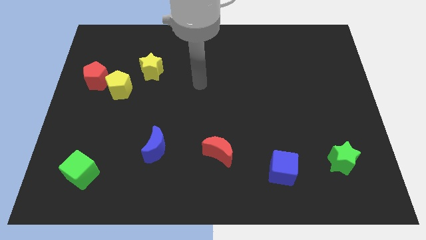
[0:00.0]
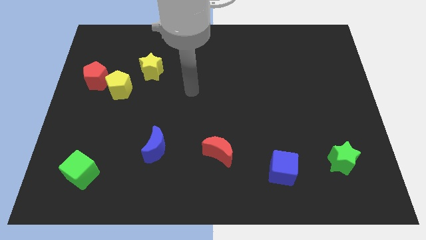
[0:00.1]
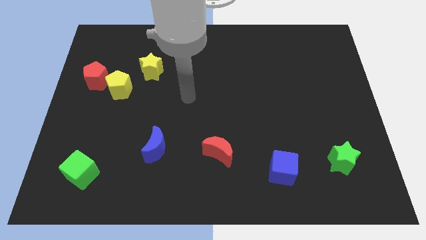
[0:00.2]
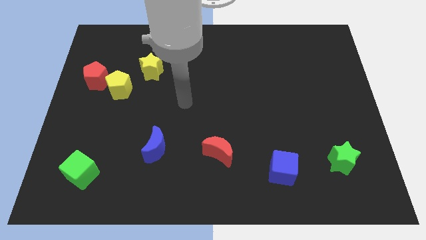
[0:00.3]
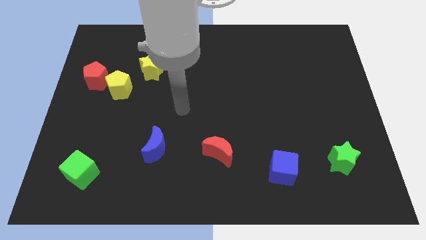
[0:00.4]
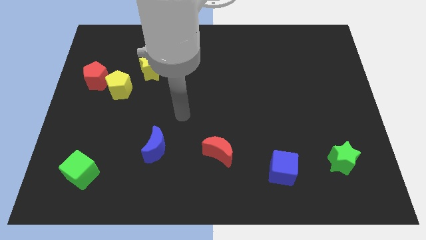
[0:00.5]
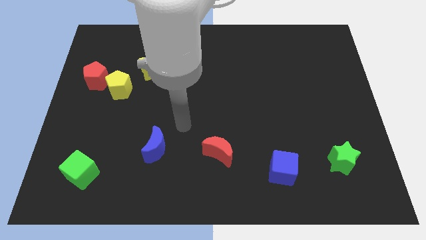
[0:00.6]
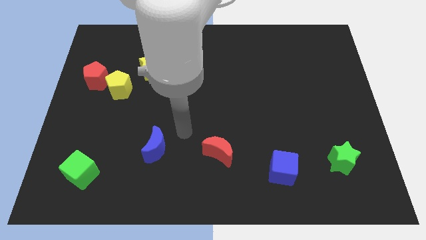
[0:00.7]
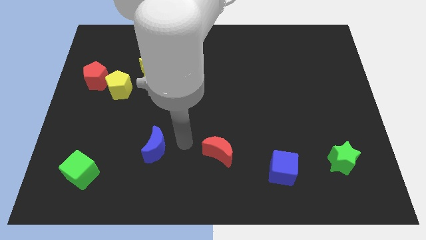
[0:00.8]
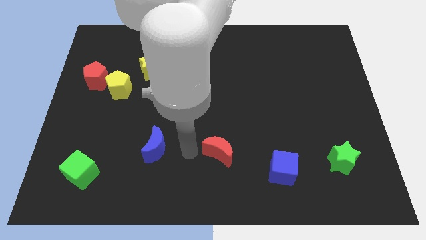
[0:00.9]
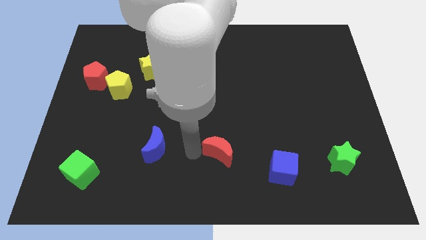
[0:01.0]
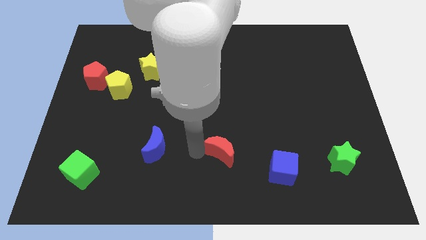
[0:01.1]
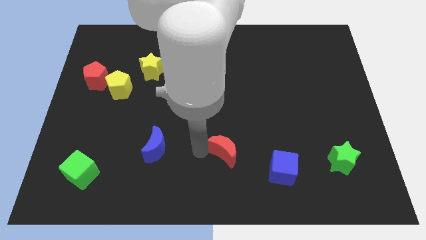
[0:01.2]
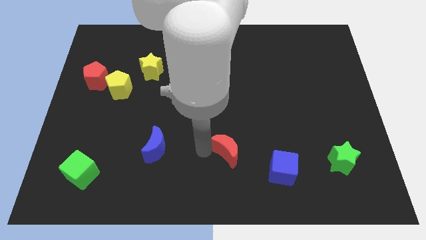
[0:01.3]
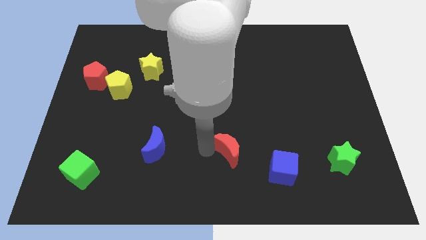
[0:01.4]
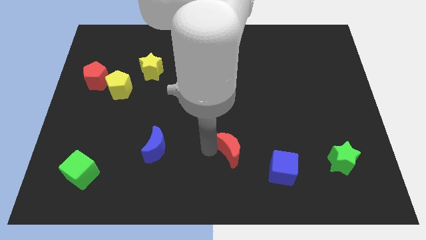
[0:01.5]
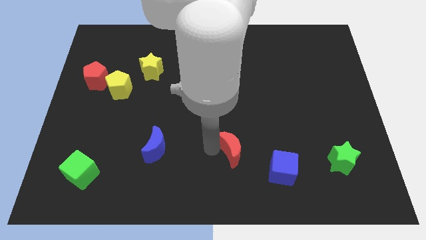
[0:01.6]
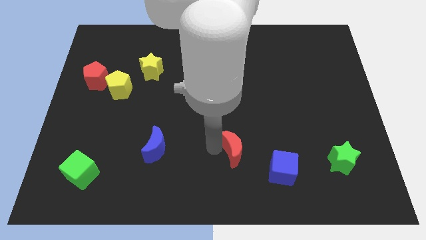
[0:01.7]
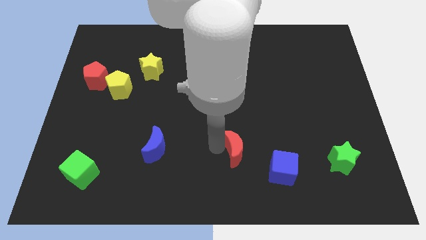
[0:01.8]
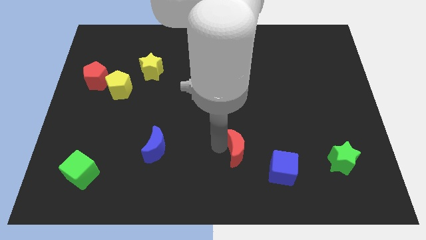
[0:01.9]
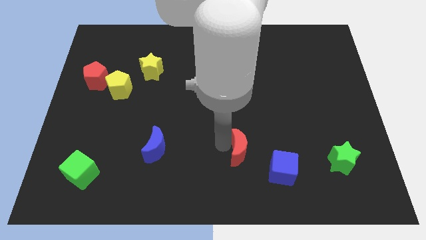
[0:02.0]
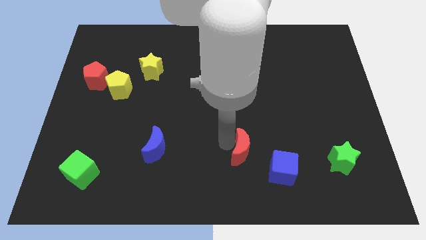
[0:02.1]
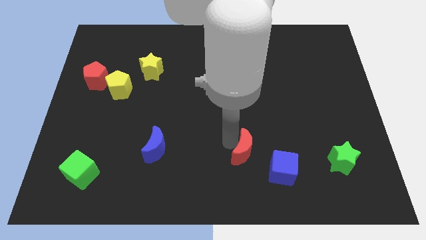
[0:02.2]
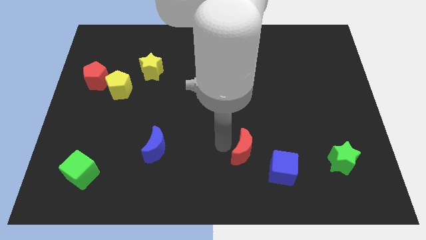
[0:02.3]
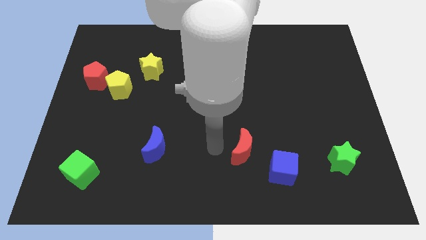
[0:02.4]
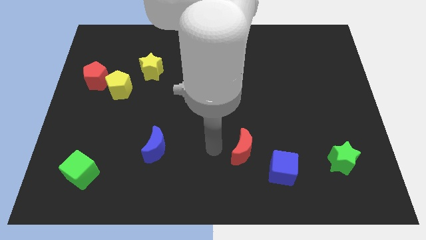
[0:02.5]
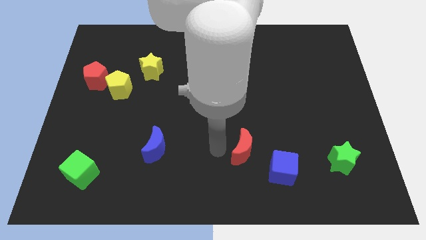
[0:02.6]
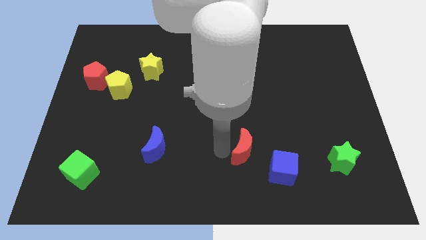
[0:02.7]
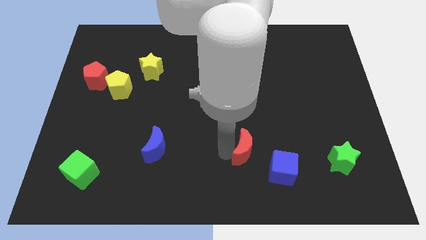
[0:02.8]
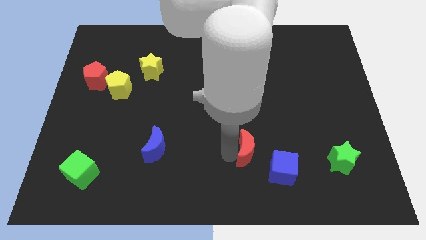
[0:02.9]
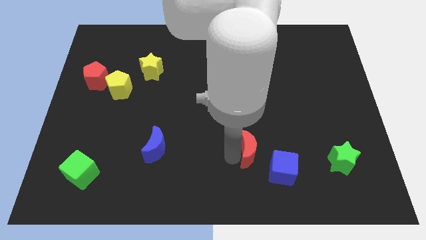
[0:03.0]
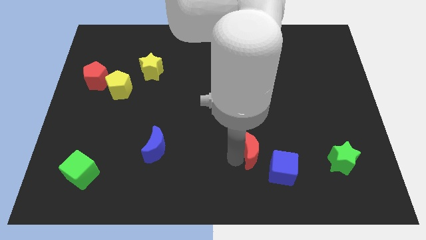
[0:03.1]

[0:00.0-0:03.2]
move the red moon right somewhat

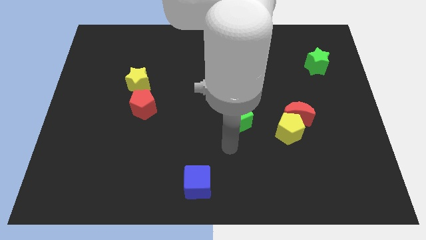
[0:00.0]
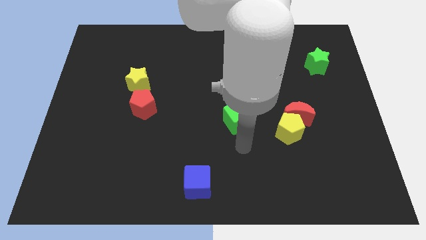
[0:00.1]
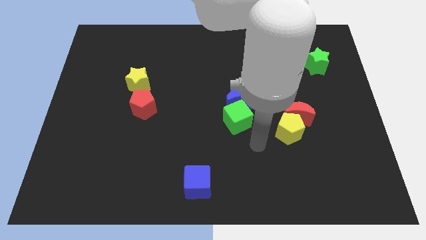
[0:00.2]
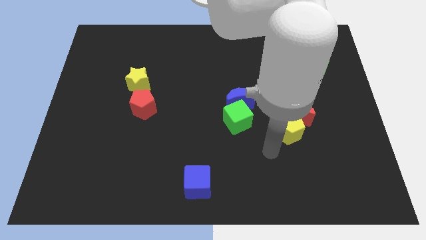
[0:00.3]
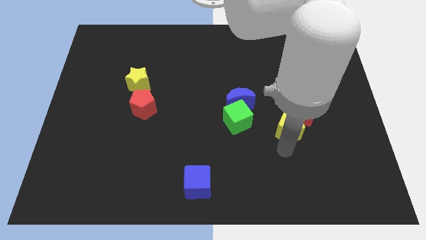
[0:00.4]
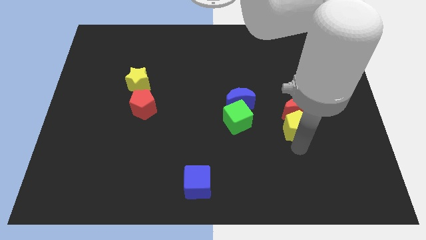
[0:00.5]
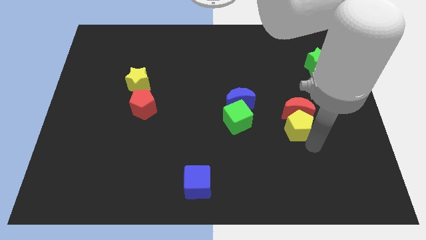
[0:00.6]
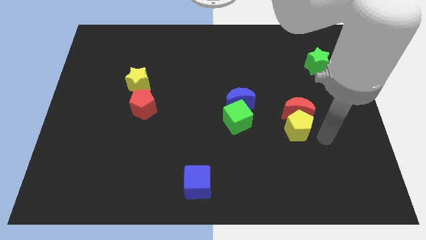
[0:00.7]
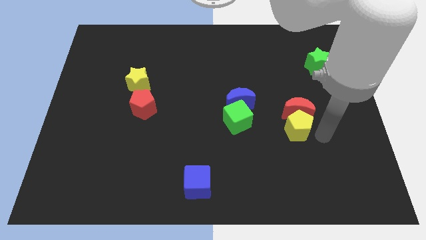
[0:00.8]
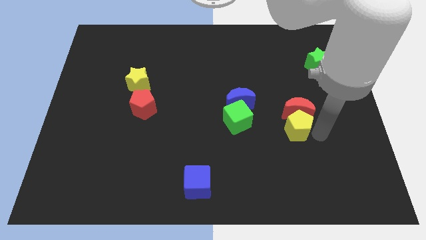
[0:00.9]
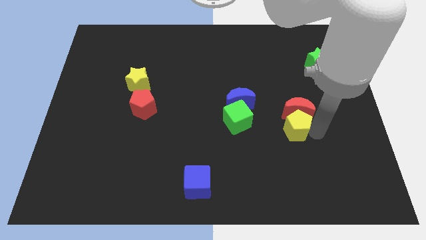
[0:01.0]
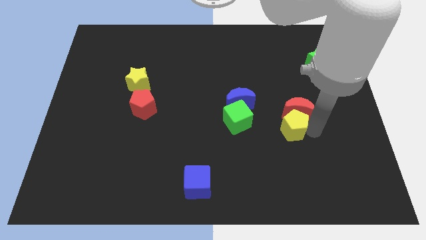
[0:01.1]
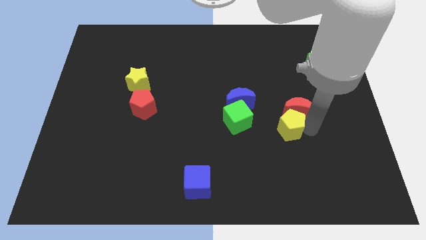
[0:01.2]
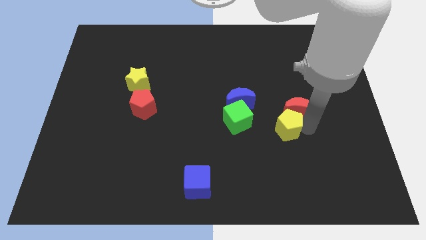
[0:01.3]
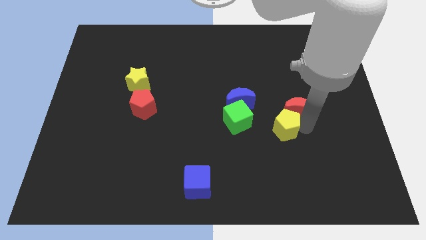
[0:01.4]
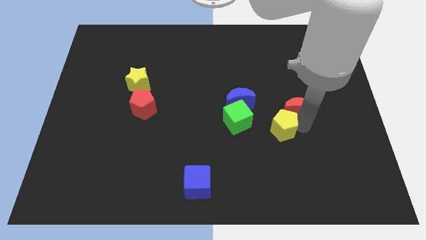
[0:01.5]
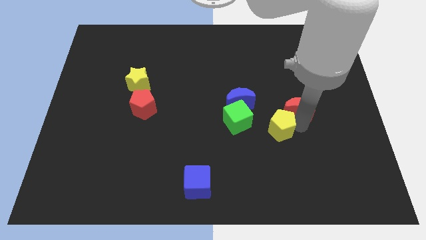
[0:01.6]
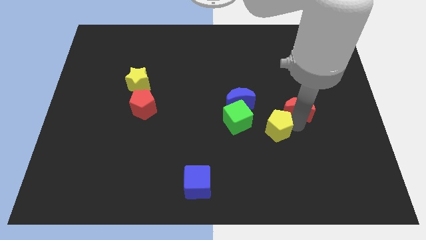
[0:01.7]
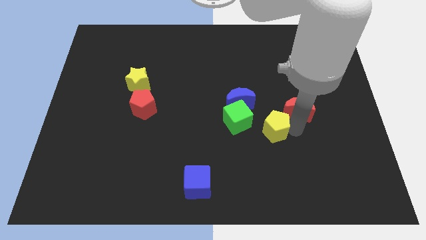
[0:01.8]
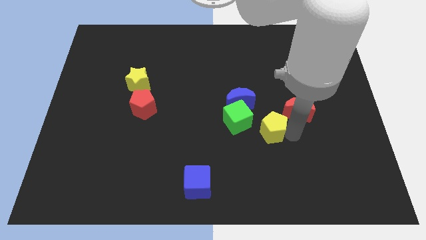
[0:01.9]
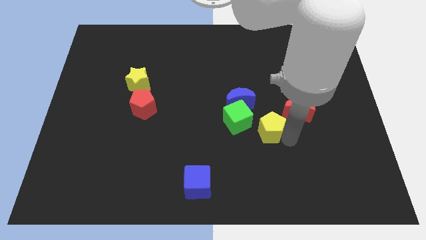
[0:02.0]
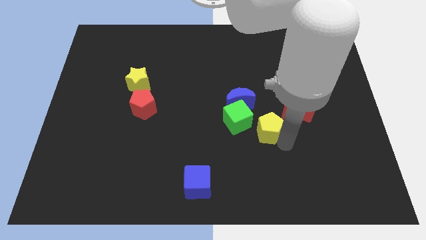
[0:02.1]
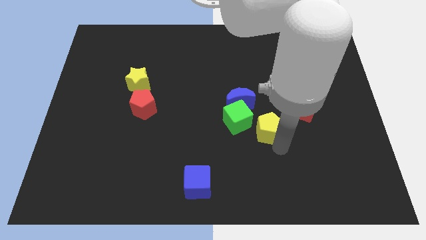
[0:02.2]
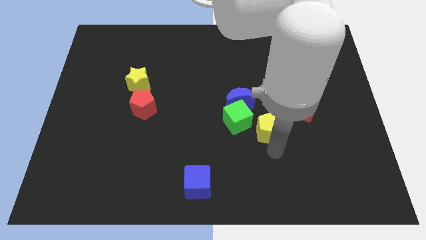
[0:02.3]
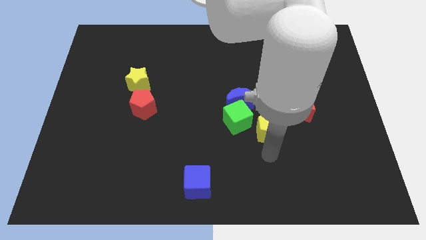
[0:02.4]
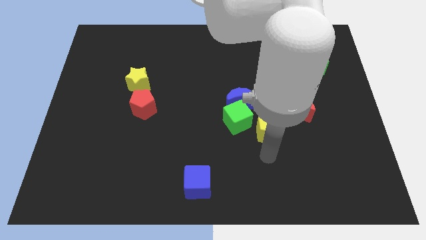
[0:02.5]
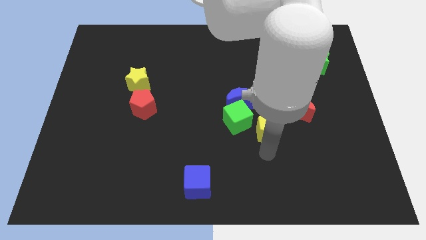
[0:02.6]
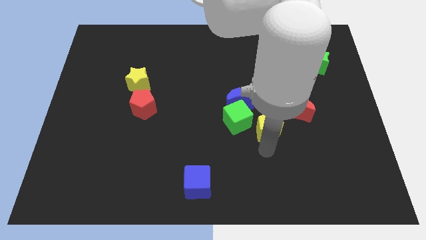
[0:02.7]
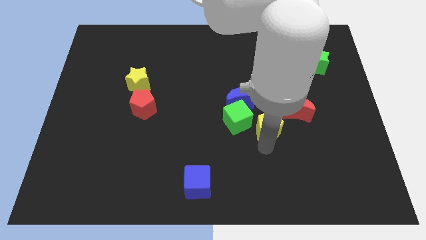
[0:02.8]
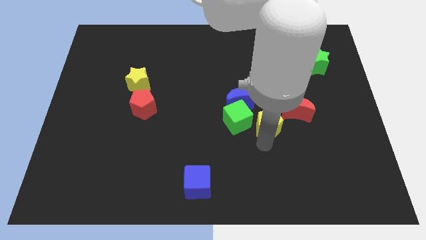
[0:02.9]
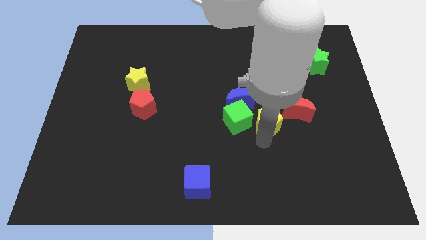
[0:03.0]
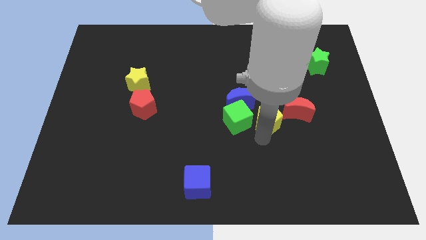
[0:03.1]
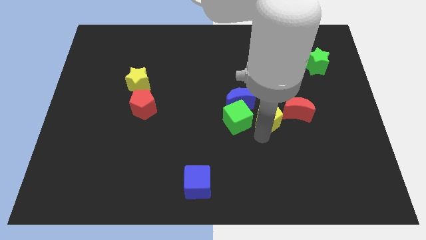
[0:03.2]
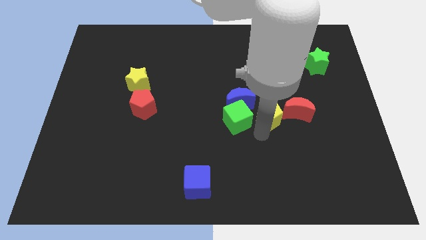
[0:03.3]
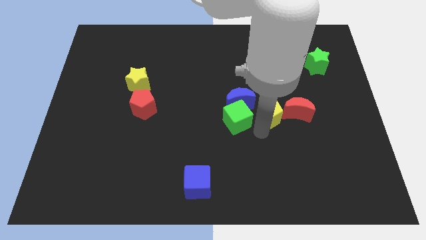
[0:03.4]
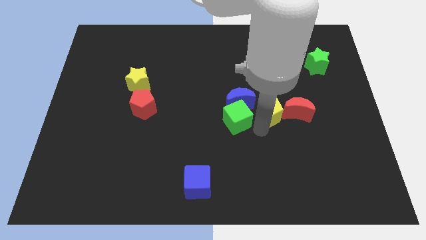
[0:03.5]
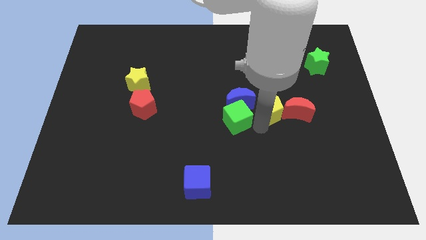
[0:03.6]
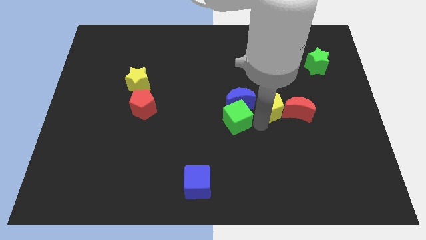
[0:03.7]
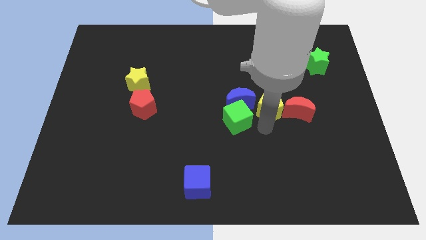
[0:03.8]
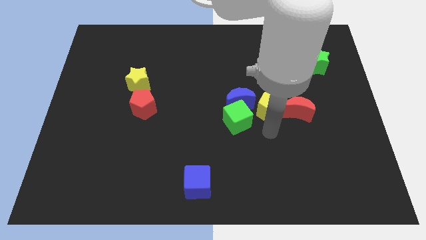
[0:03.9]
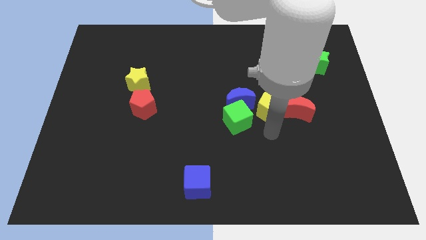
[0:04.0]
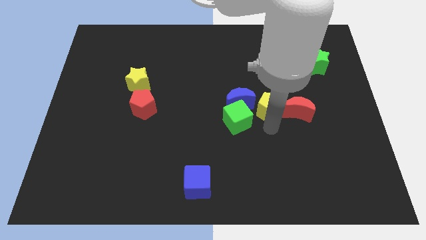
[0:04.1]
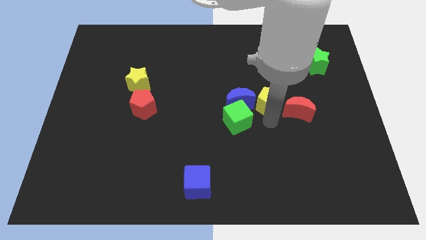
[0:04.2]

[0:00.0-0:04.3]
slightly move the yellow pentagon up

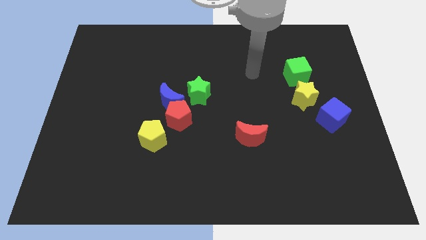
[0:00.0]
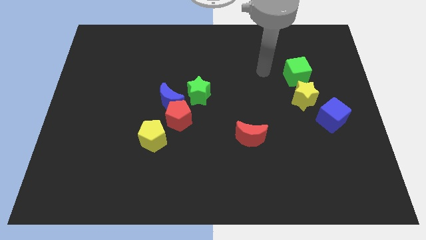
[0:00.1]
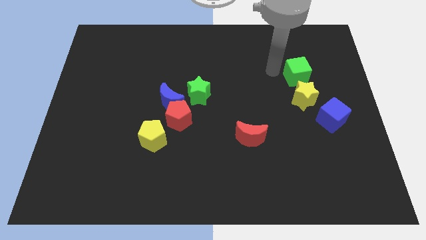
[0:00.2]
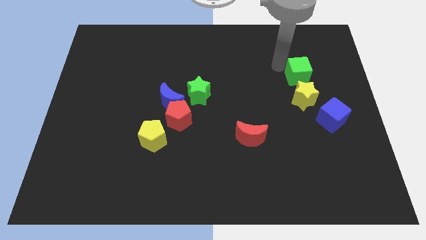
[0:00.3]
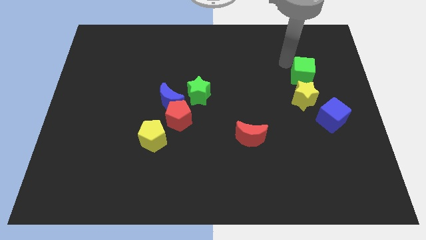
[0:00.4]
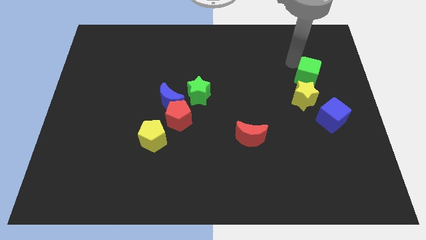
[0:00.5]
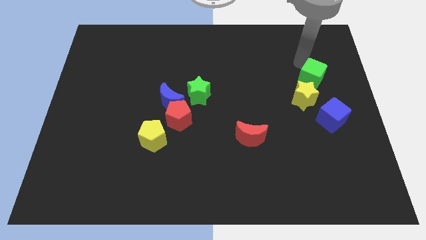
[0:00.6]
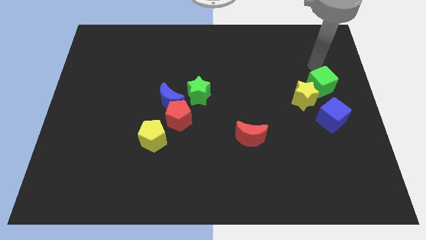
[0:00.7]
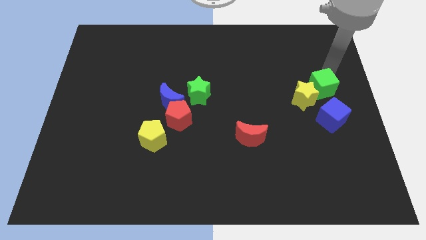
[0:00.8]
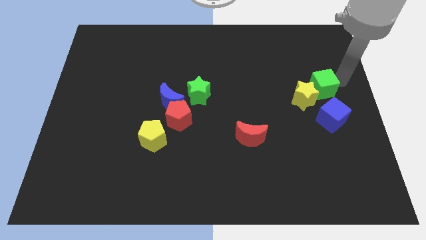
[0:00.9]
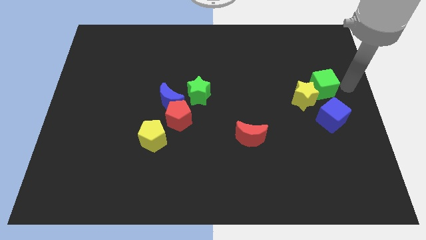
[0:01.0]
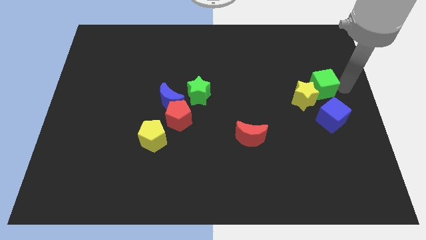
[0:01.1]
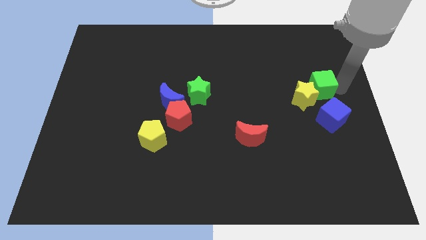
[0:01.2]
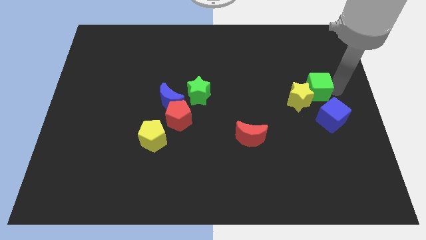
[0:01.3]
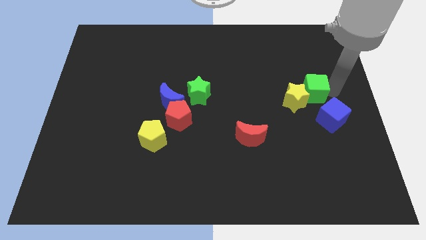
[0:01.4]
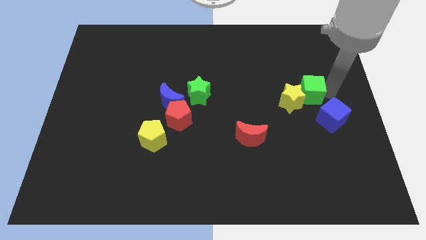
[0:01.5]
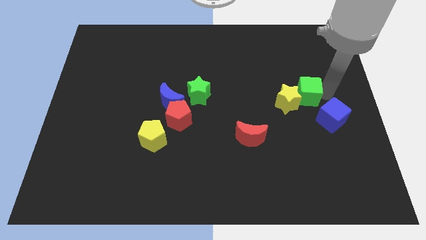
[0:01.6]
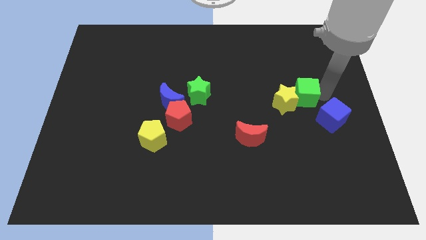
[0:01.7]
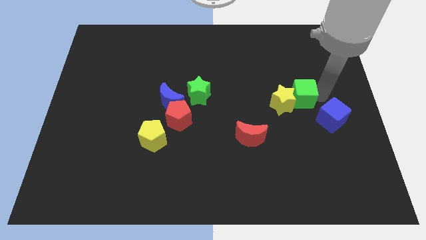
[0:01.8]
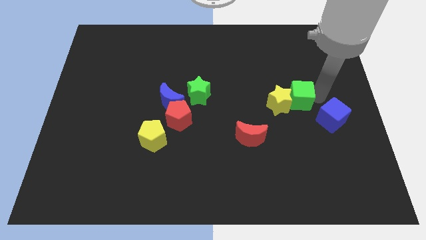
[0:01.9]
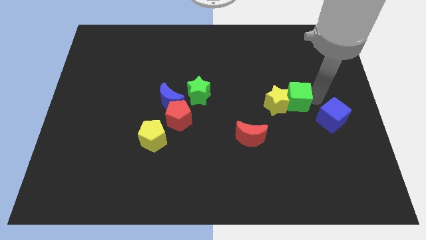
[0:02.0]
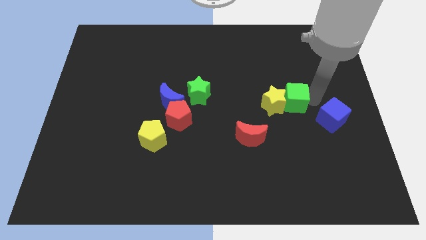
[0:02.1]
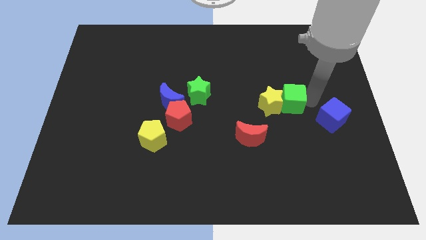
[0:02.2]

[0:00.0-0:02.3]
slide the green cube down and to the left diagonally a bit
